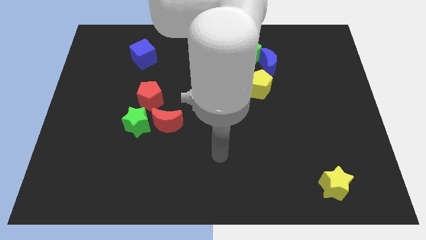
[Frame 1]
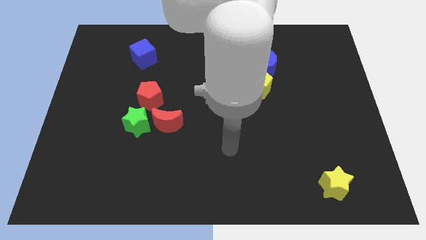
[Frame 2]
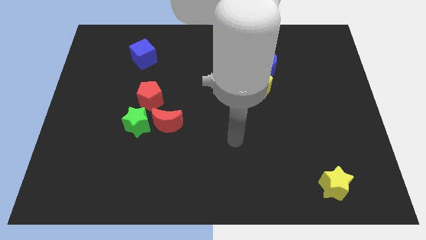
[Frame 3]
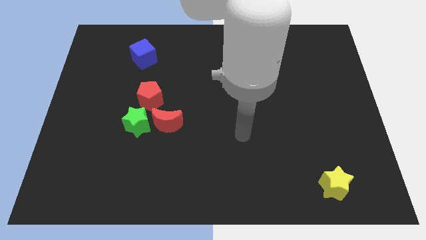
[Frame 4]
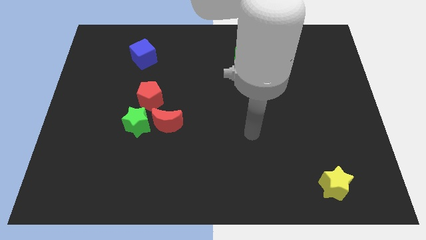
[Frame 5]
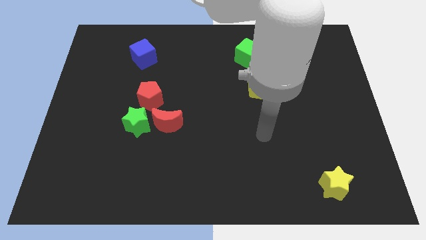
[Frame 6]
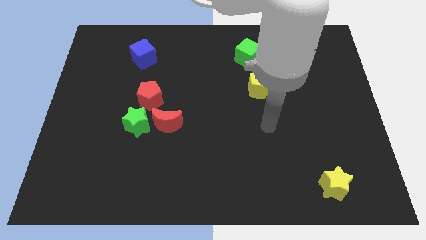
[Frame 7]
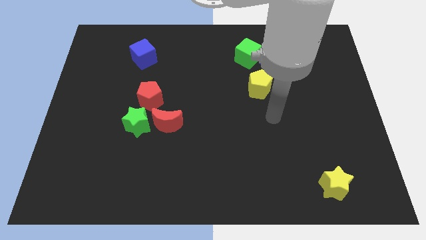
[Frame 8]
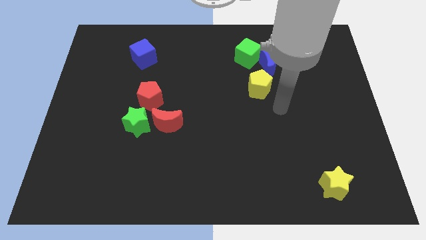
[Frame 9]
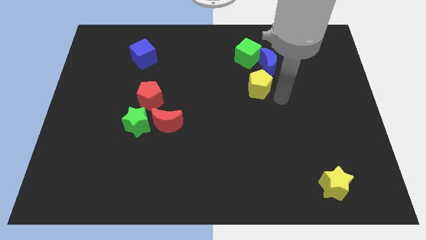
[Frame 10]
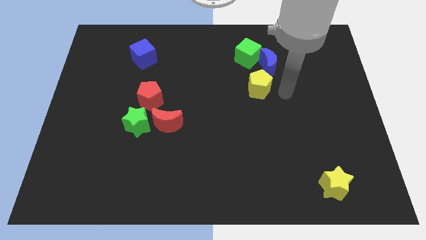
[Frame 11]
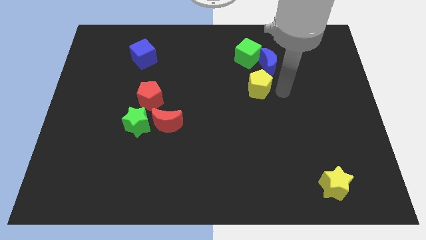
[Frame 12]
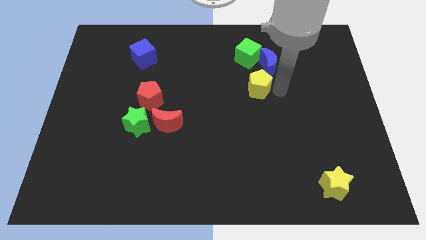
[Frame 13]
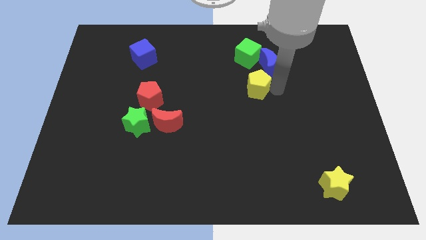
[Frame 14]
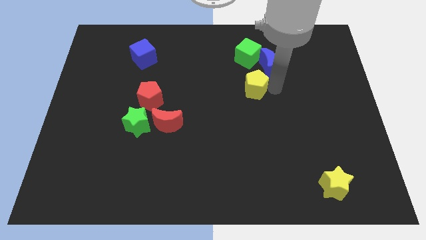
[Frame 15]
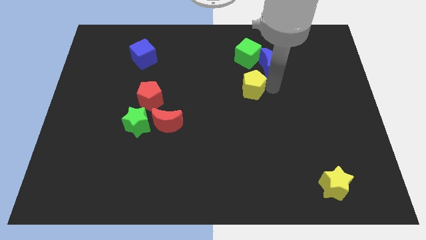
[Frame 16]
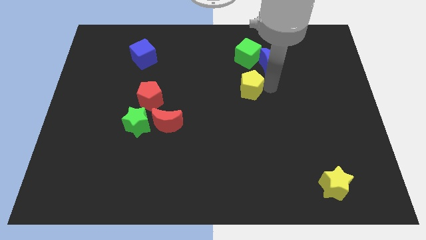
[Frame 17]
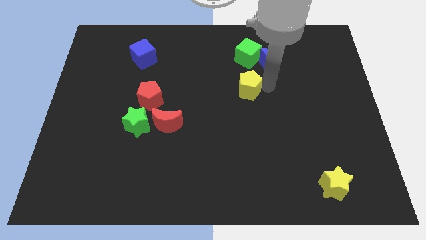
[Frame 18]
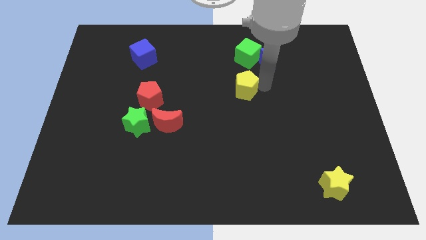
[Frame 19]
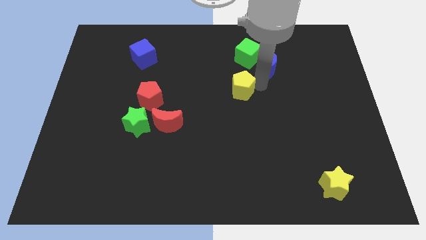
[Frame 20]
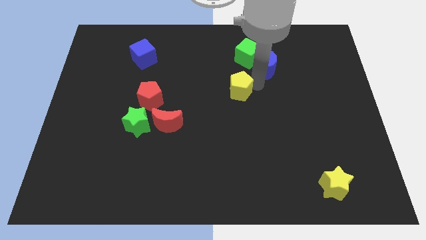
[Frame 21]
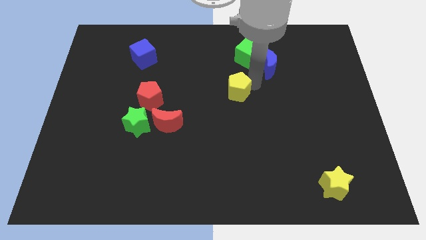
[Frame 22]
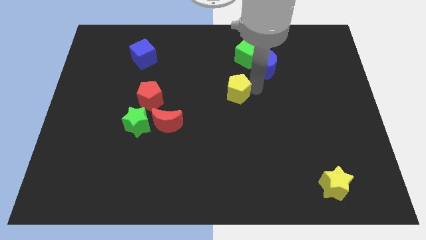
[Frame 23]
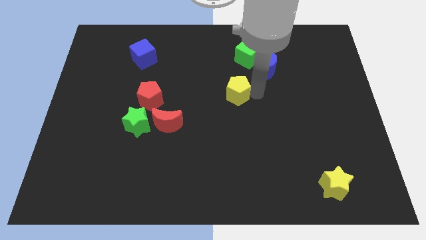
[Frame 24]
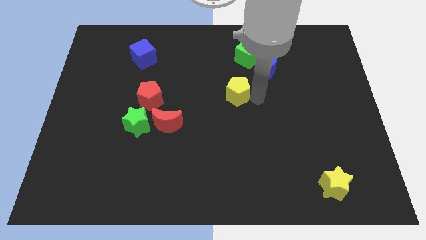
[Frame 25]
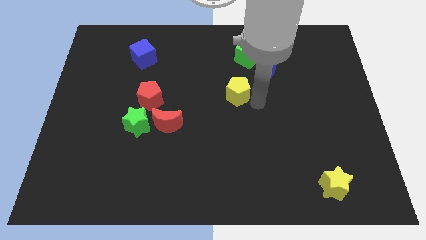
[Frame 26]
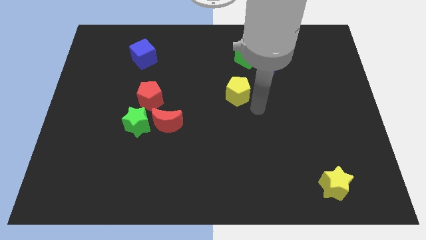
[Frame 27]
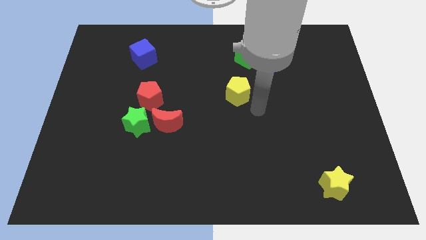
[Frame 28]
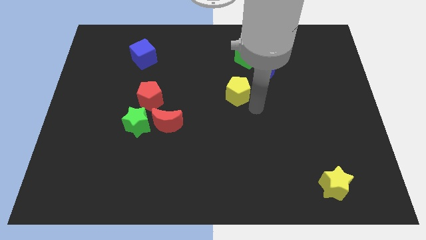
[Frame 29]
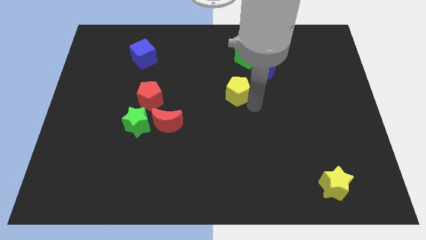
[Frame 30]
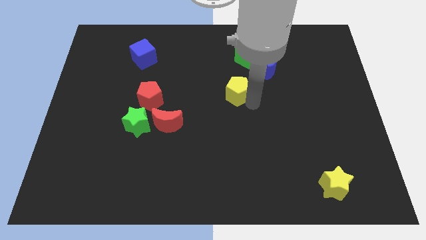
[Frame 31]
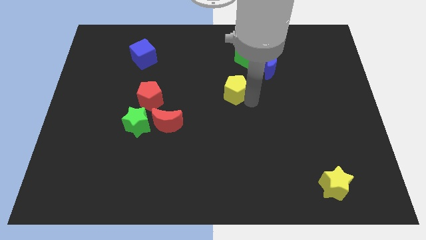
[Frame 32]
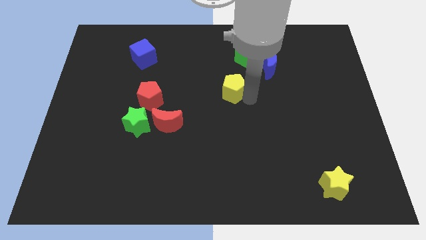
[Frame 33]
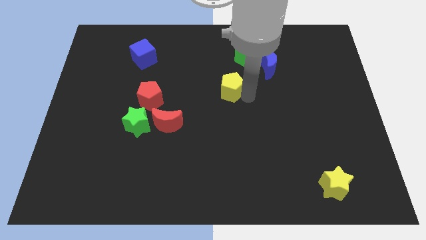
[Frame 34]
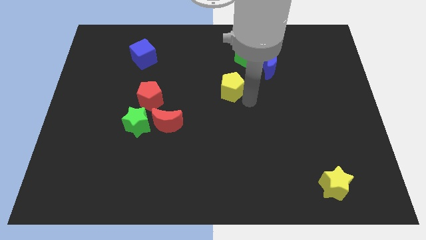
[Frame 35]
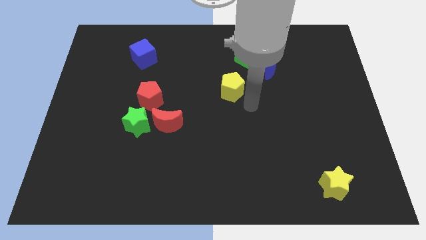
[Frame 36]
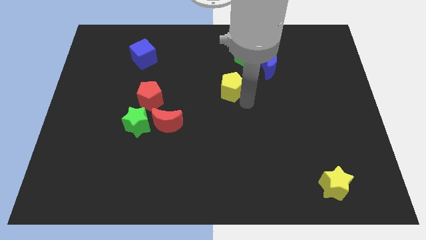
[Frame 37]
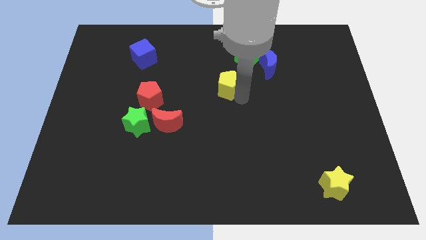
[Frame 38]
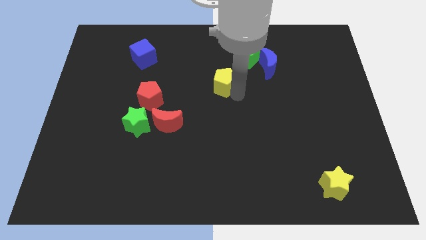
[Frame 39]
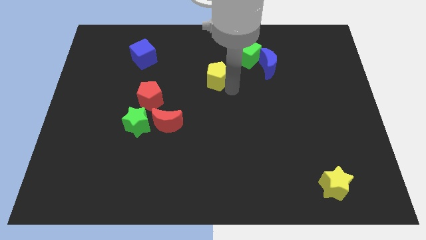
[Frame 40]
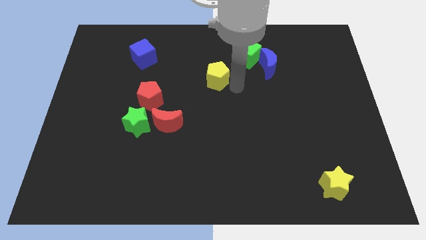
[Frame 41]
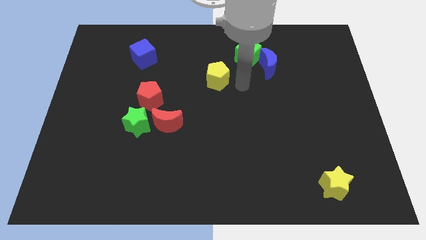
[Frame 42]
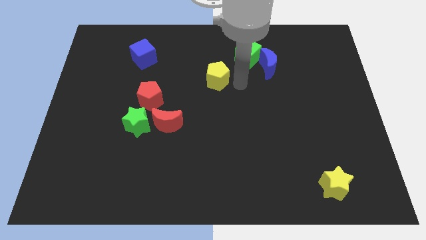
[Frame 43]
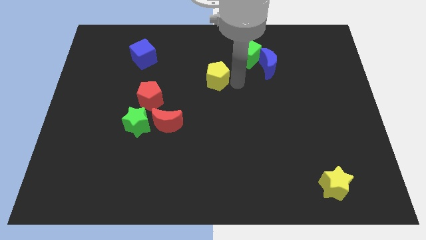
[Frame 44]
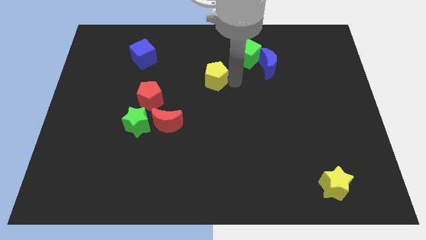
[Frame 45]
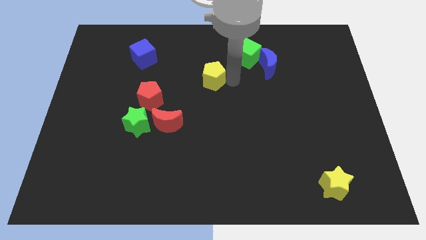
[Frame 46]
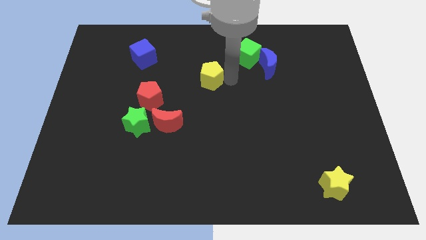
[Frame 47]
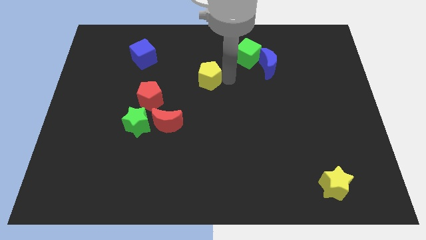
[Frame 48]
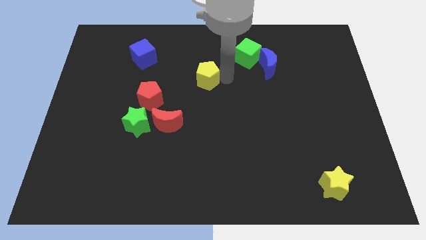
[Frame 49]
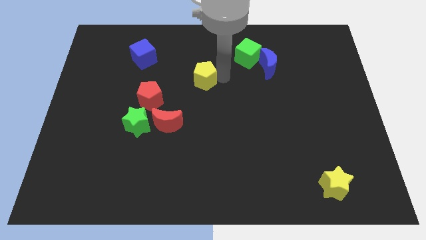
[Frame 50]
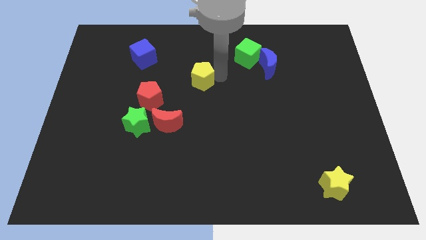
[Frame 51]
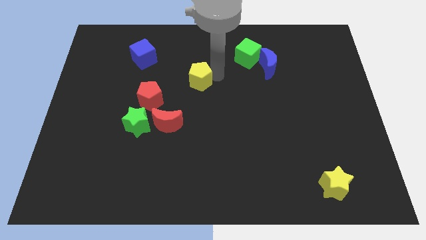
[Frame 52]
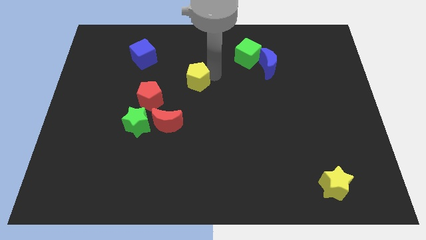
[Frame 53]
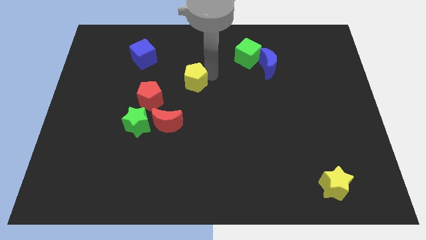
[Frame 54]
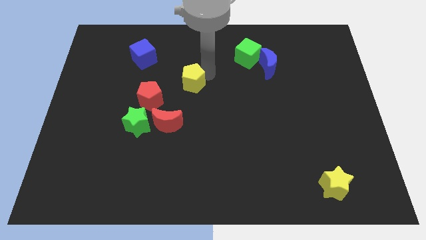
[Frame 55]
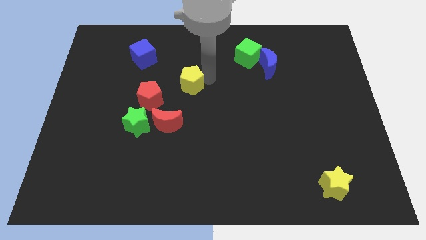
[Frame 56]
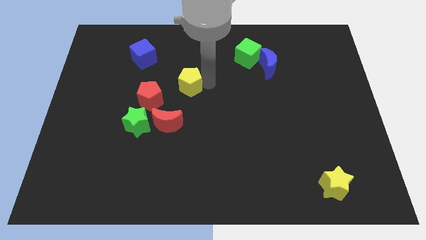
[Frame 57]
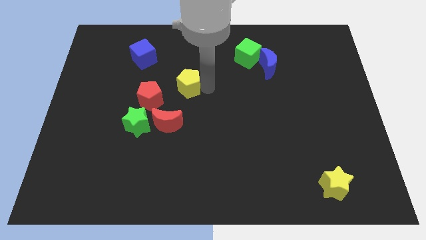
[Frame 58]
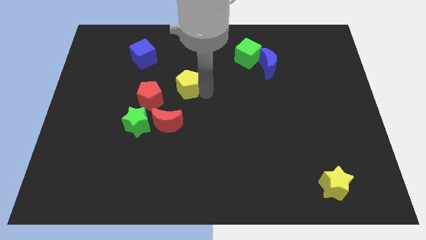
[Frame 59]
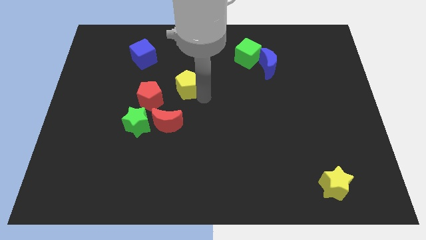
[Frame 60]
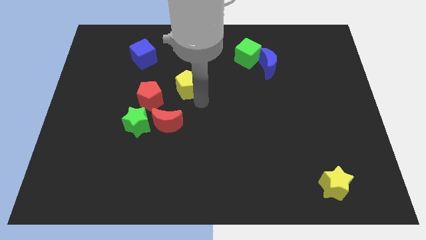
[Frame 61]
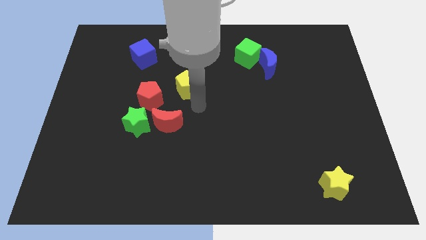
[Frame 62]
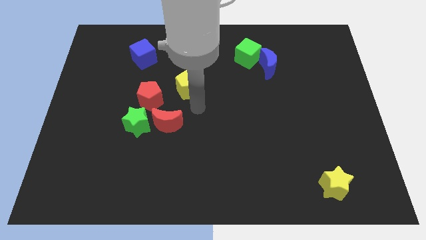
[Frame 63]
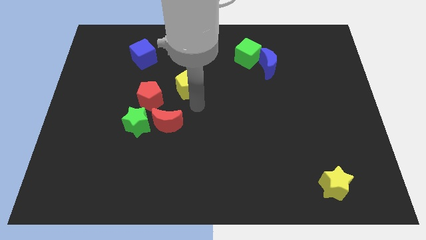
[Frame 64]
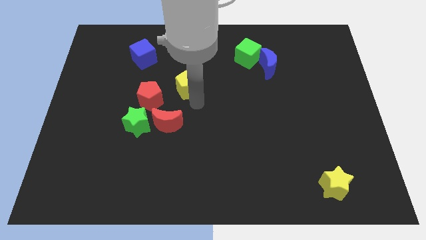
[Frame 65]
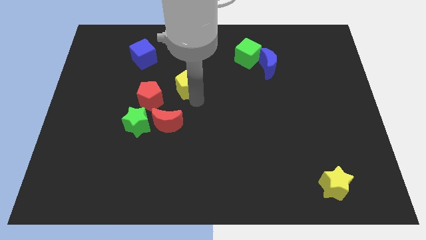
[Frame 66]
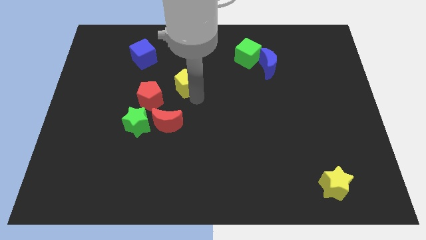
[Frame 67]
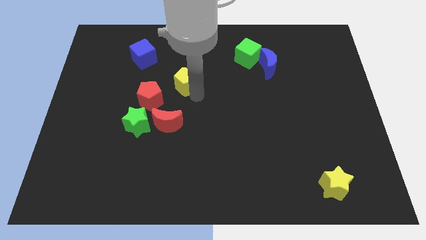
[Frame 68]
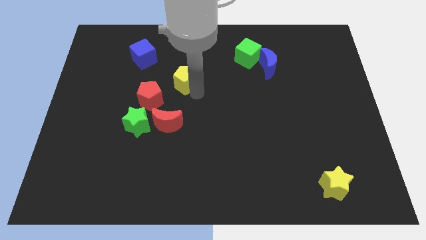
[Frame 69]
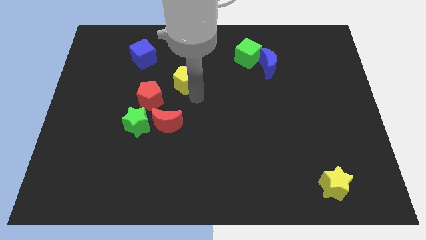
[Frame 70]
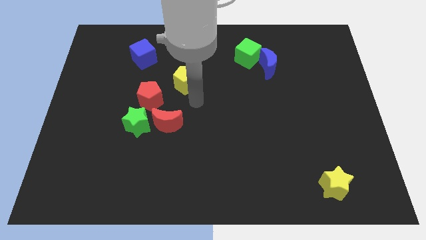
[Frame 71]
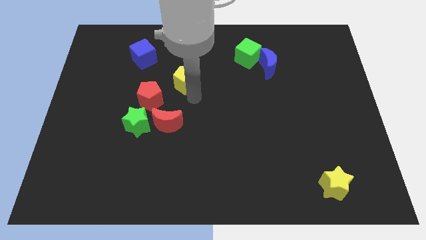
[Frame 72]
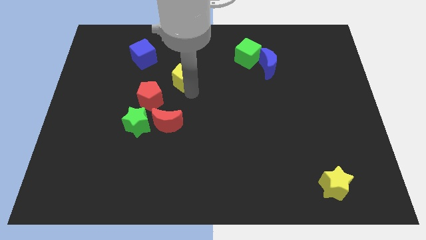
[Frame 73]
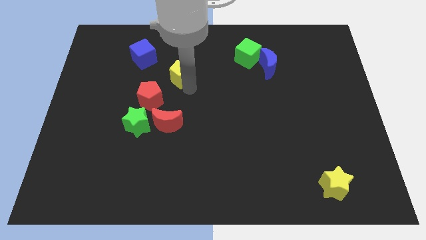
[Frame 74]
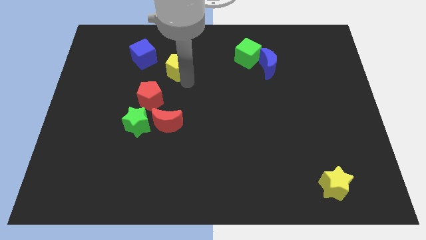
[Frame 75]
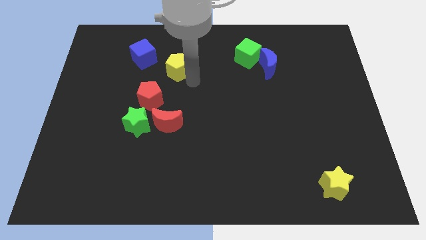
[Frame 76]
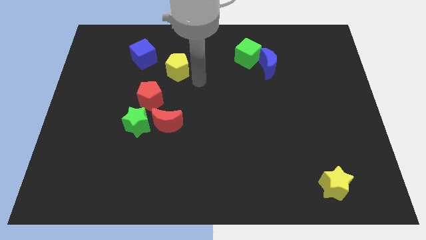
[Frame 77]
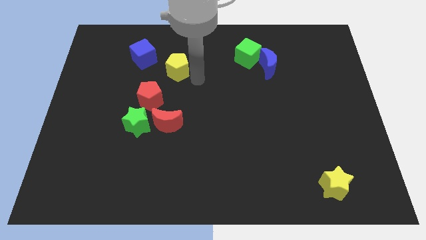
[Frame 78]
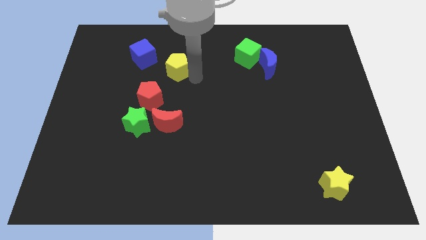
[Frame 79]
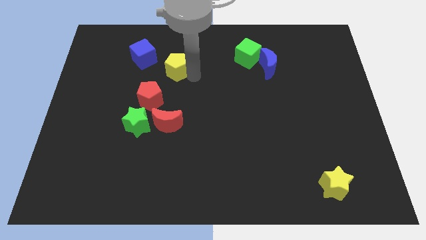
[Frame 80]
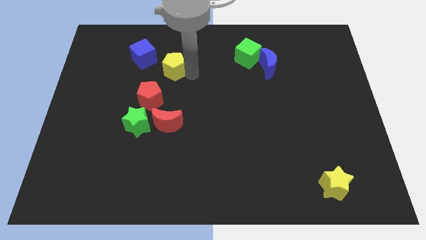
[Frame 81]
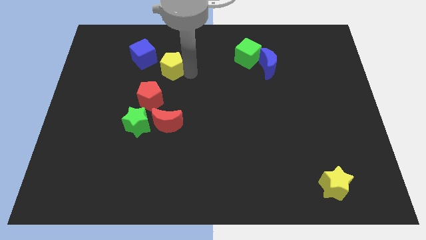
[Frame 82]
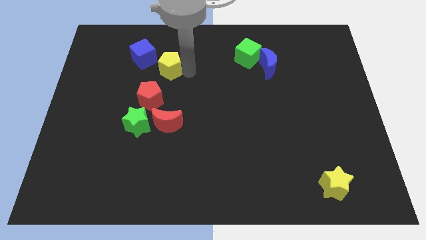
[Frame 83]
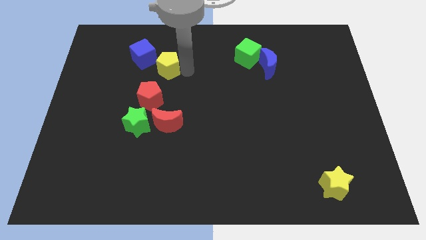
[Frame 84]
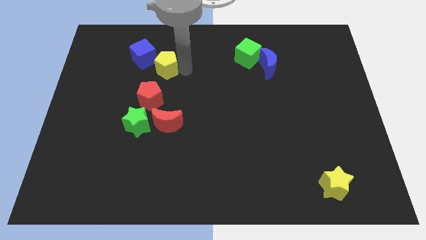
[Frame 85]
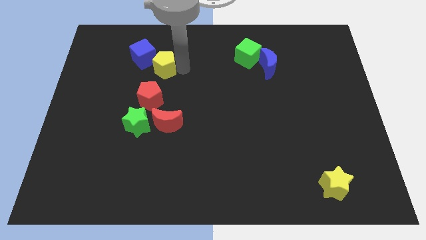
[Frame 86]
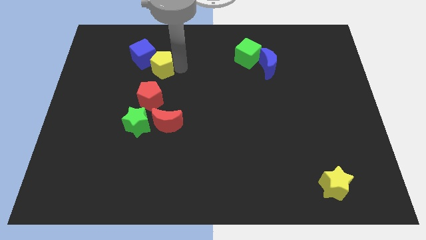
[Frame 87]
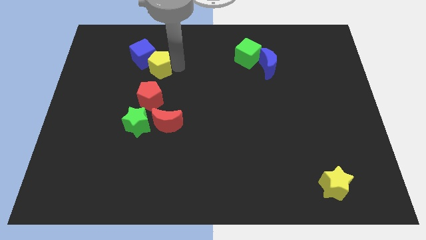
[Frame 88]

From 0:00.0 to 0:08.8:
put the yellow pentagon towards the blue cube
